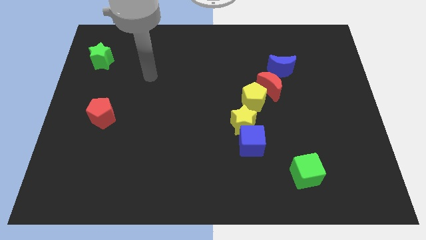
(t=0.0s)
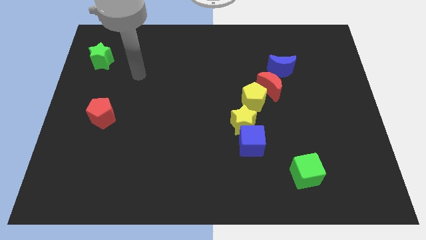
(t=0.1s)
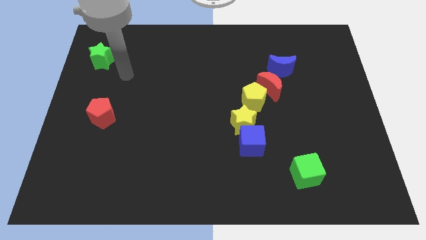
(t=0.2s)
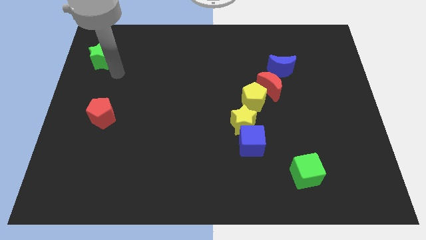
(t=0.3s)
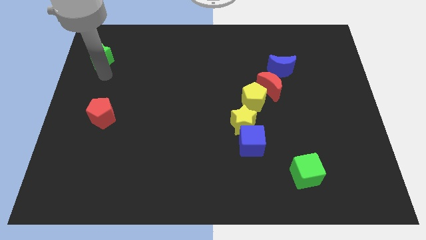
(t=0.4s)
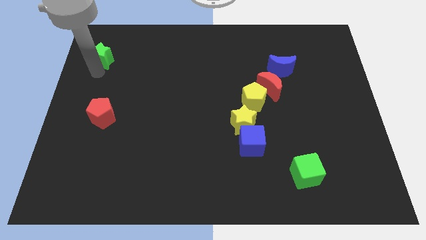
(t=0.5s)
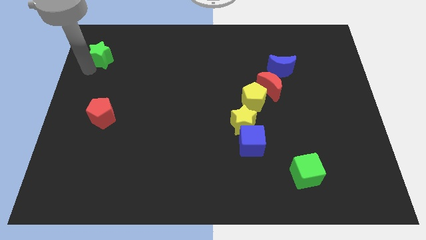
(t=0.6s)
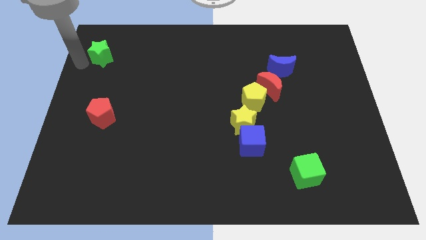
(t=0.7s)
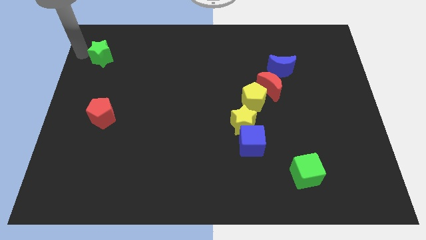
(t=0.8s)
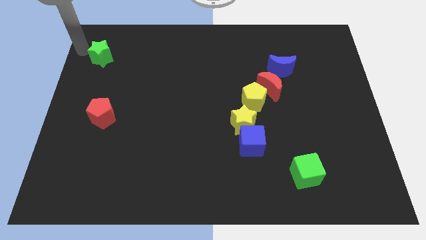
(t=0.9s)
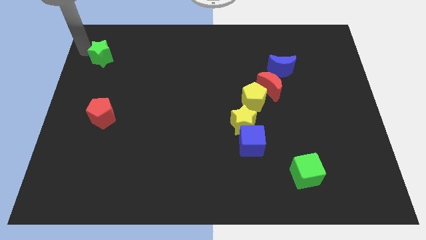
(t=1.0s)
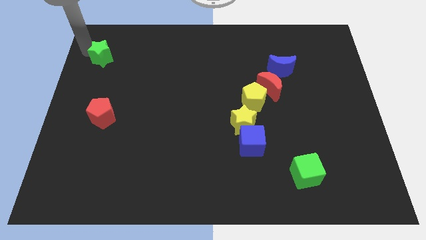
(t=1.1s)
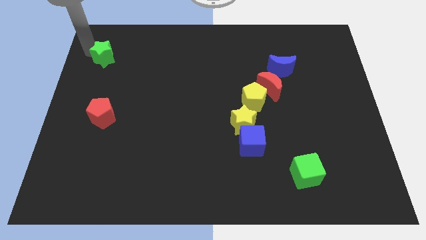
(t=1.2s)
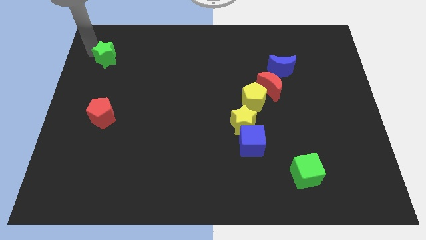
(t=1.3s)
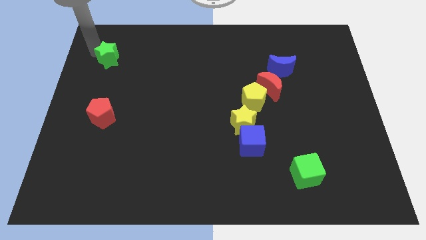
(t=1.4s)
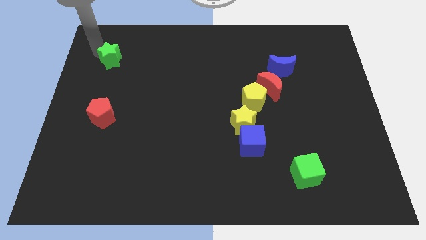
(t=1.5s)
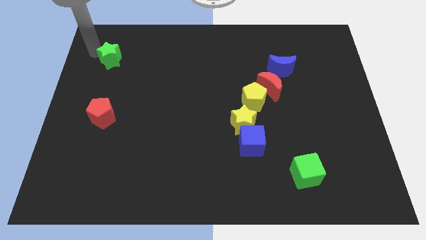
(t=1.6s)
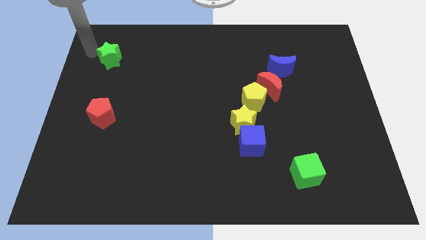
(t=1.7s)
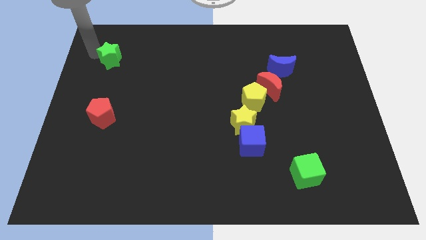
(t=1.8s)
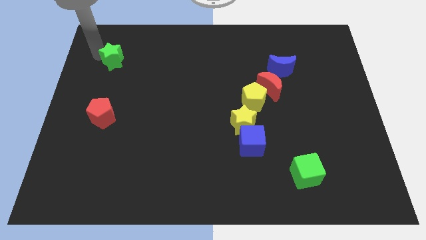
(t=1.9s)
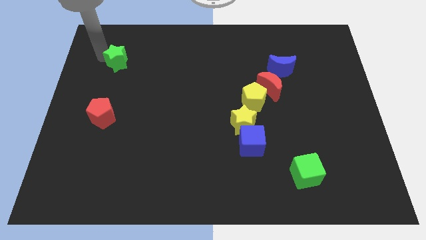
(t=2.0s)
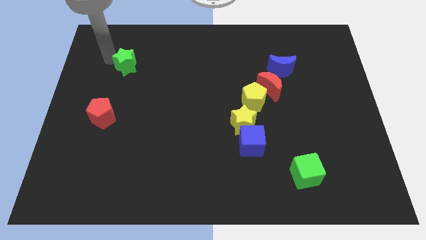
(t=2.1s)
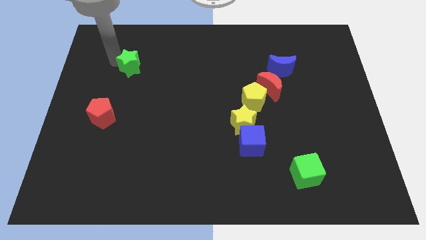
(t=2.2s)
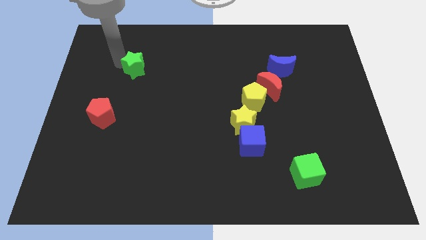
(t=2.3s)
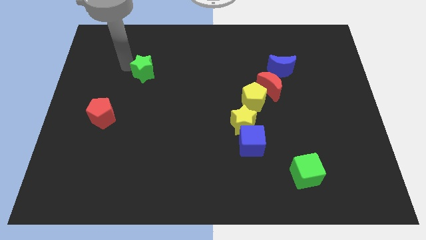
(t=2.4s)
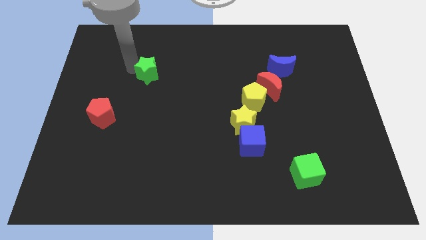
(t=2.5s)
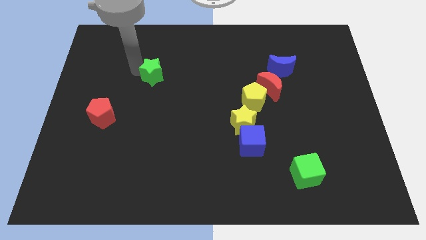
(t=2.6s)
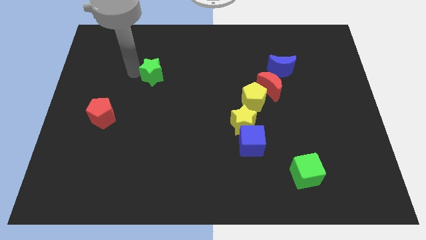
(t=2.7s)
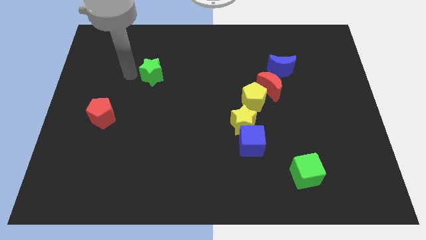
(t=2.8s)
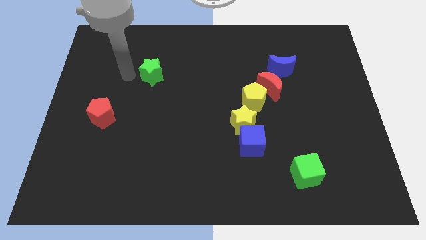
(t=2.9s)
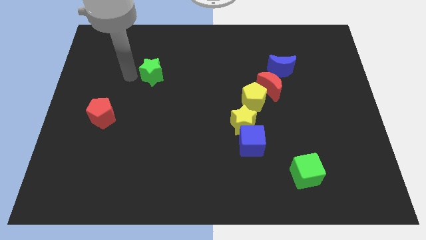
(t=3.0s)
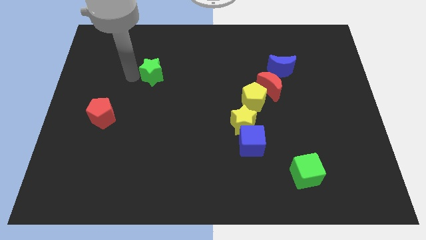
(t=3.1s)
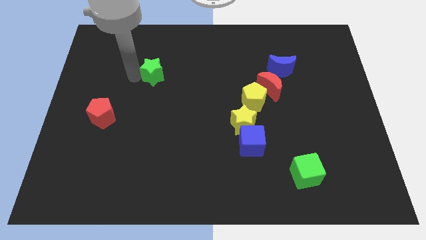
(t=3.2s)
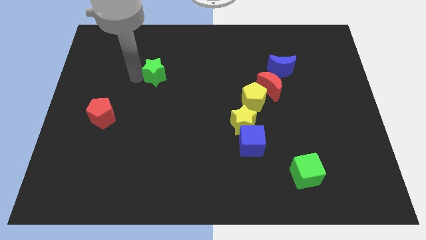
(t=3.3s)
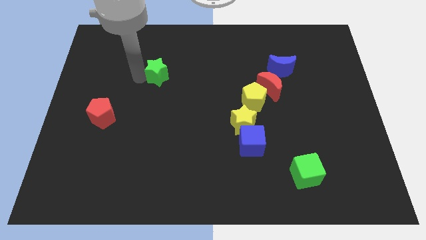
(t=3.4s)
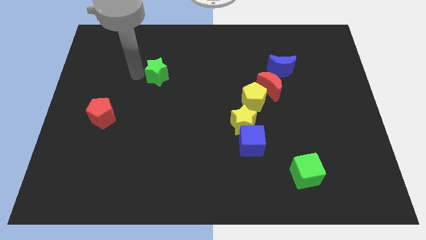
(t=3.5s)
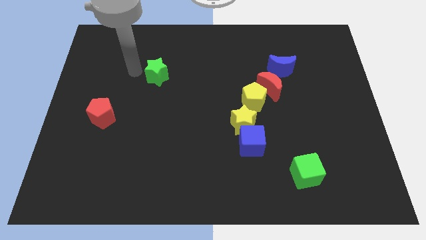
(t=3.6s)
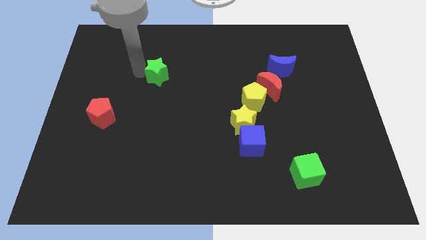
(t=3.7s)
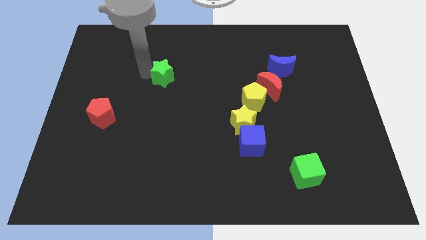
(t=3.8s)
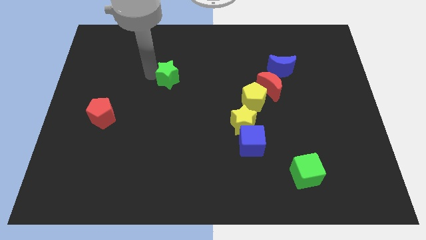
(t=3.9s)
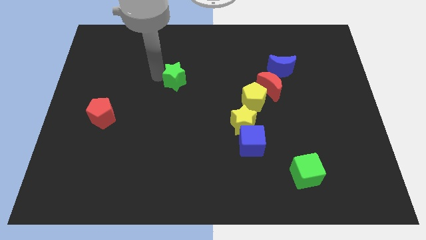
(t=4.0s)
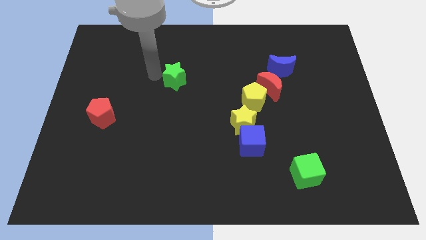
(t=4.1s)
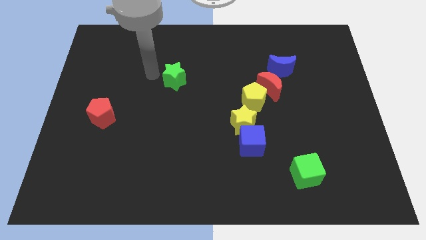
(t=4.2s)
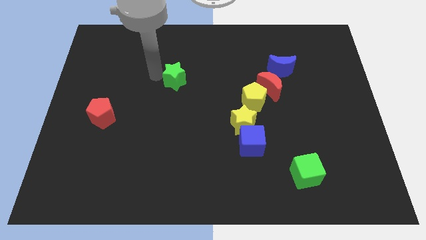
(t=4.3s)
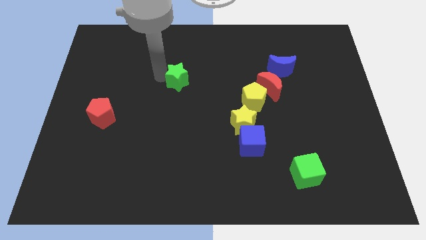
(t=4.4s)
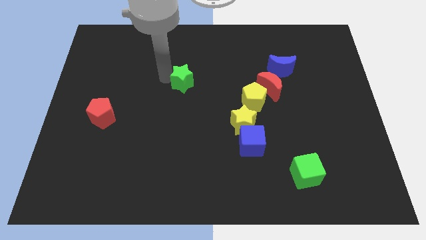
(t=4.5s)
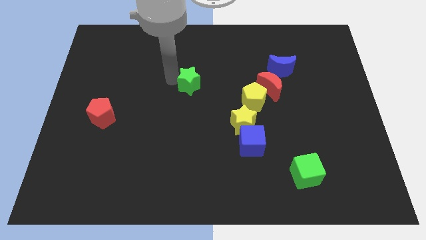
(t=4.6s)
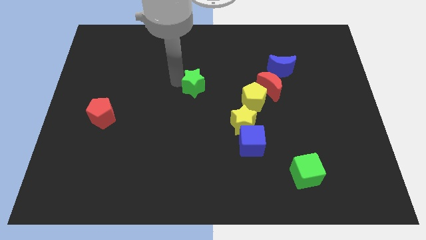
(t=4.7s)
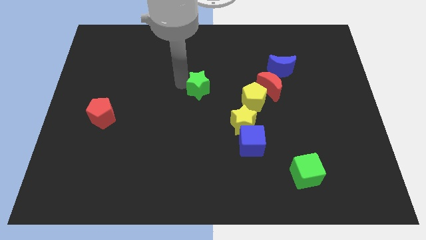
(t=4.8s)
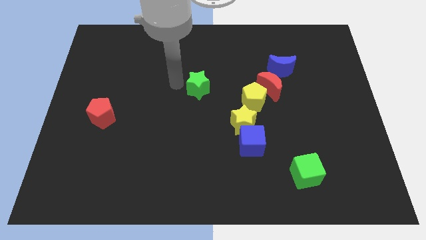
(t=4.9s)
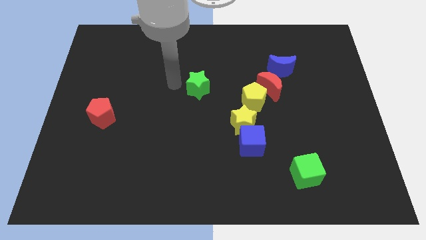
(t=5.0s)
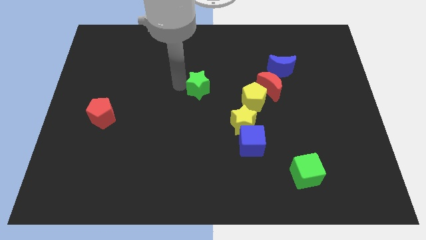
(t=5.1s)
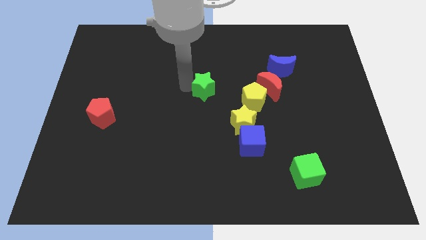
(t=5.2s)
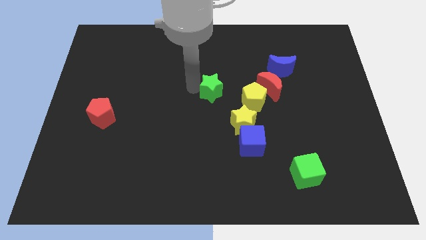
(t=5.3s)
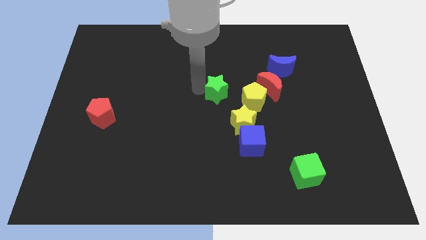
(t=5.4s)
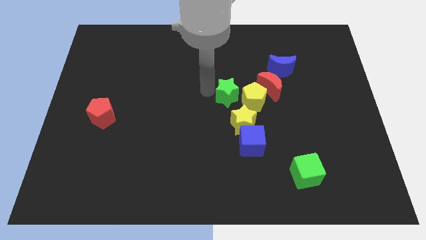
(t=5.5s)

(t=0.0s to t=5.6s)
put the green star next to the yellow pentagon

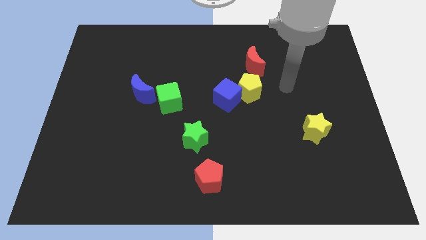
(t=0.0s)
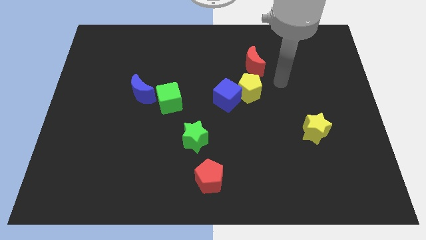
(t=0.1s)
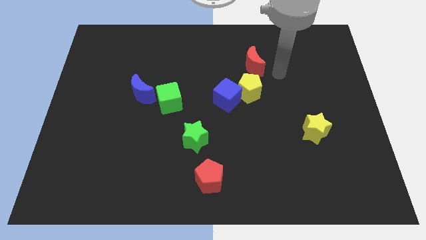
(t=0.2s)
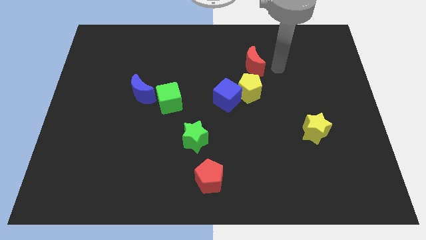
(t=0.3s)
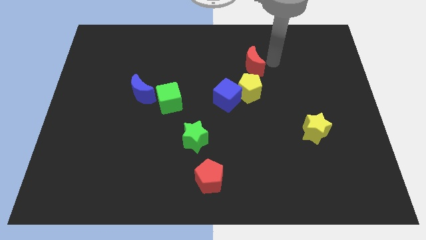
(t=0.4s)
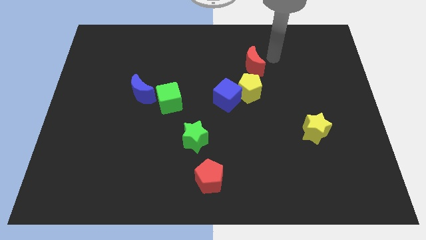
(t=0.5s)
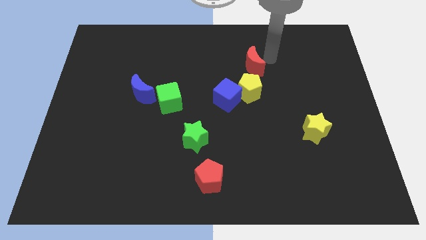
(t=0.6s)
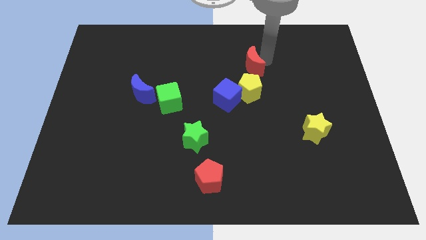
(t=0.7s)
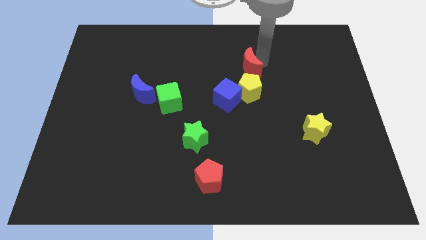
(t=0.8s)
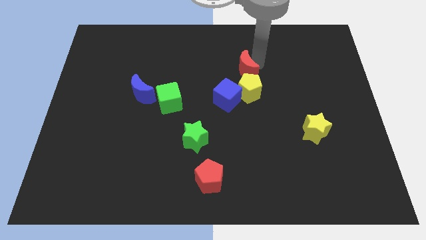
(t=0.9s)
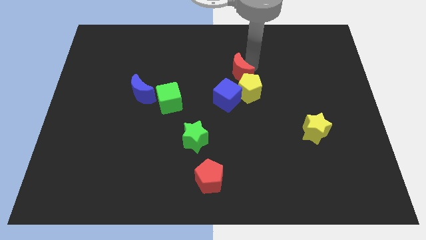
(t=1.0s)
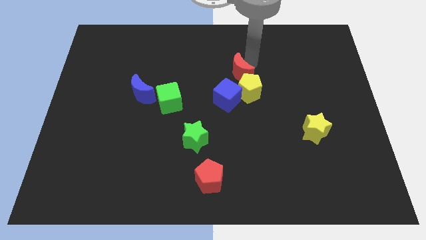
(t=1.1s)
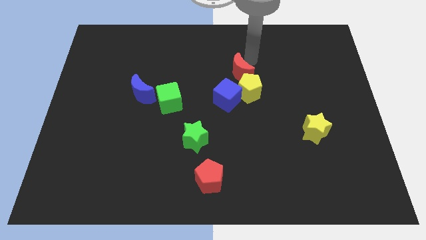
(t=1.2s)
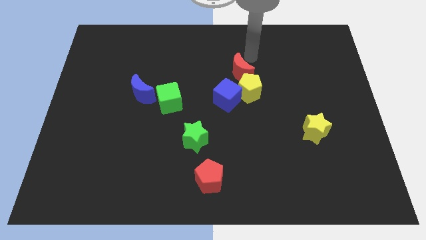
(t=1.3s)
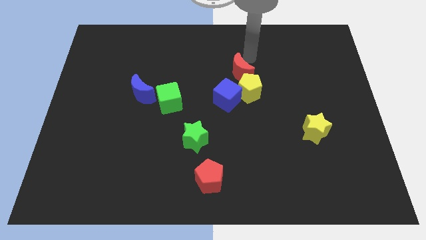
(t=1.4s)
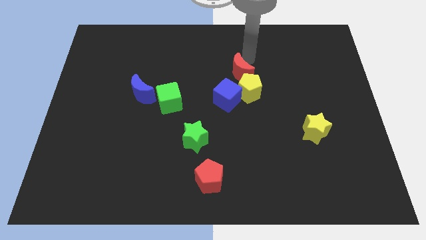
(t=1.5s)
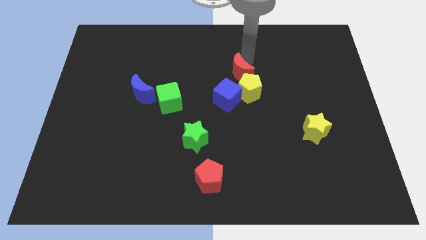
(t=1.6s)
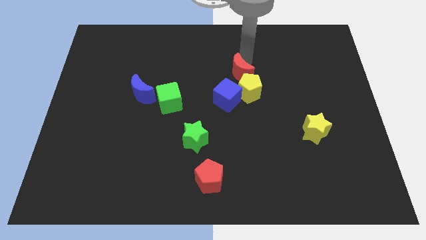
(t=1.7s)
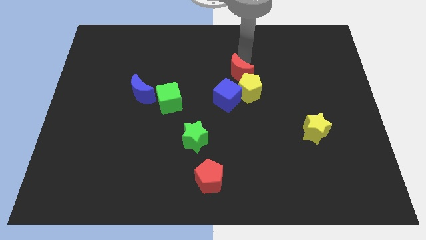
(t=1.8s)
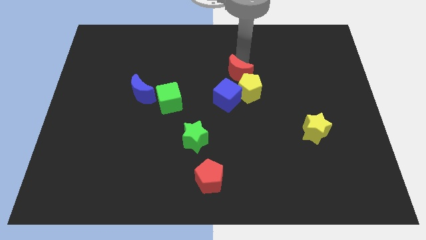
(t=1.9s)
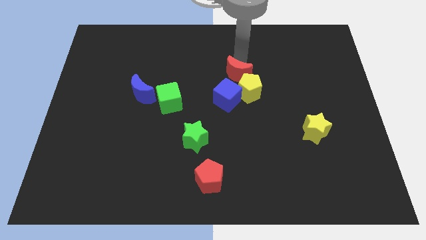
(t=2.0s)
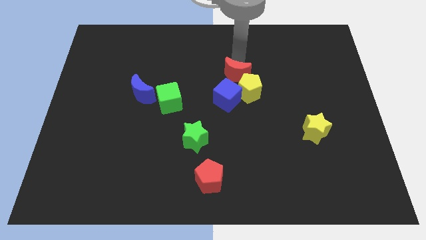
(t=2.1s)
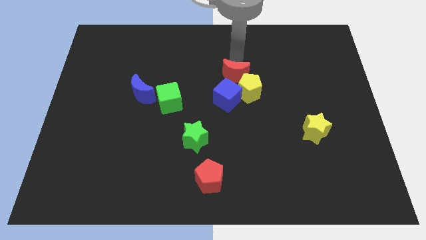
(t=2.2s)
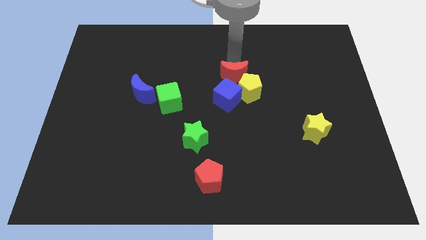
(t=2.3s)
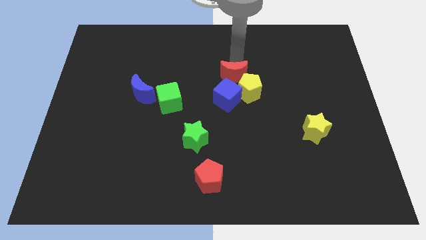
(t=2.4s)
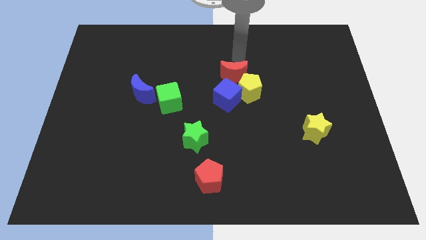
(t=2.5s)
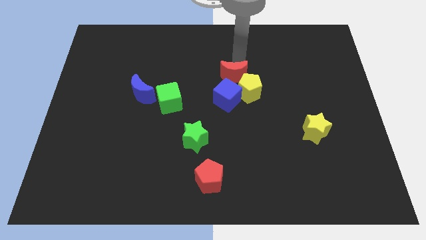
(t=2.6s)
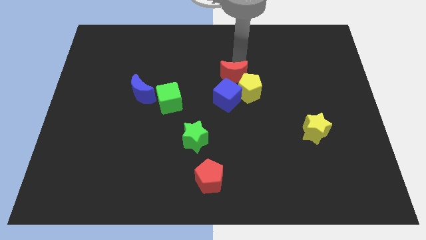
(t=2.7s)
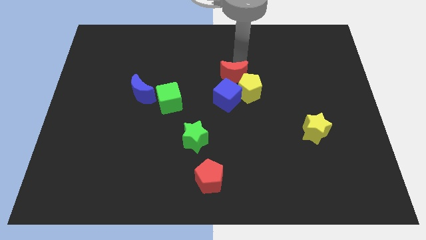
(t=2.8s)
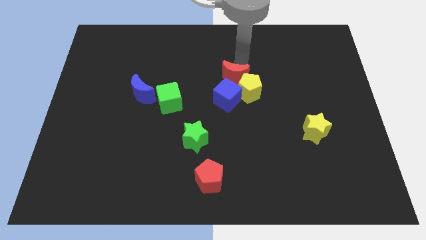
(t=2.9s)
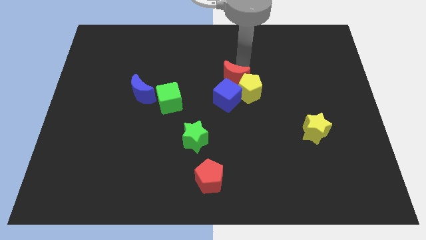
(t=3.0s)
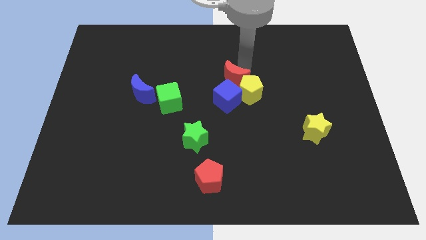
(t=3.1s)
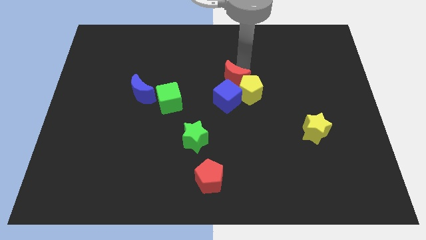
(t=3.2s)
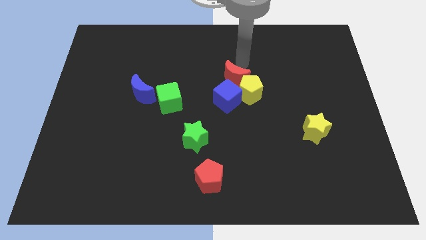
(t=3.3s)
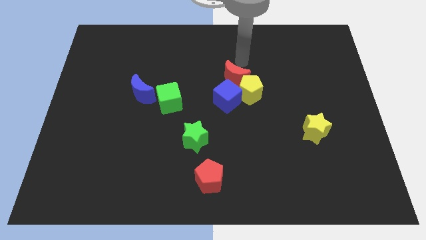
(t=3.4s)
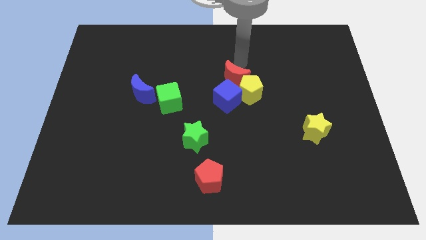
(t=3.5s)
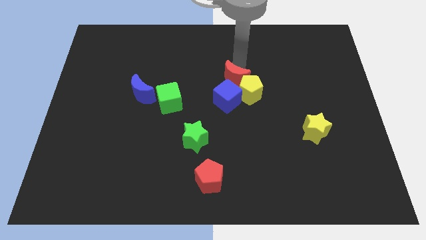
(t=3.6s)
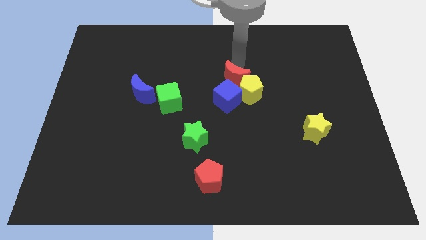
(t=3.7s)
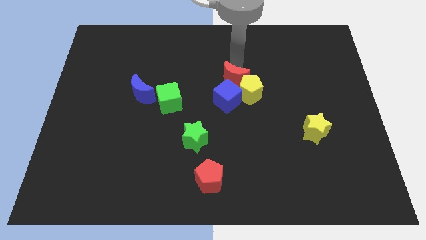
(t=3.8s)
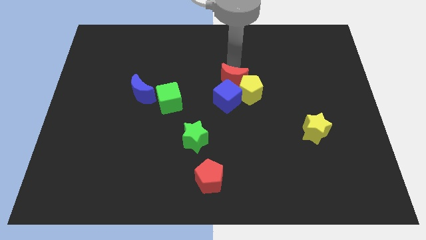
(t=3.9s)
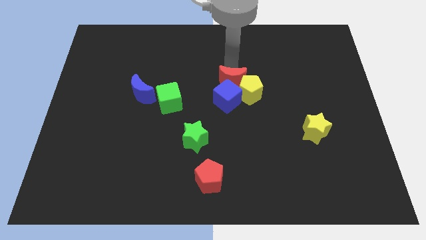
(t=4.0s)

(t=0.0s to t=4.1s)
move the red moon to the blue cube
